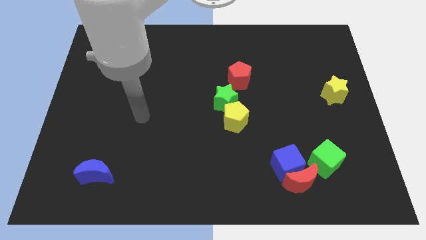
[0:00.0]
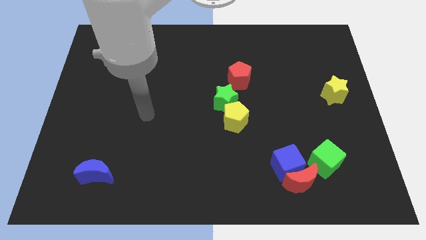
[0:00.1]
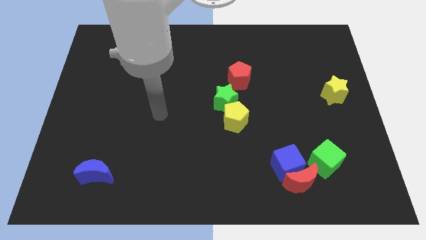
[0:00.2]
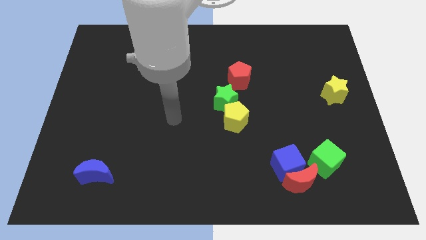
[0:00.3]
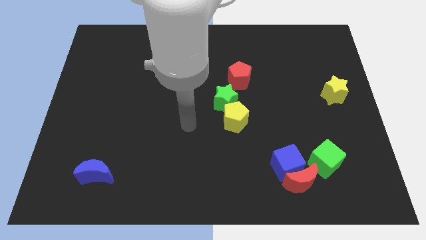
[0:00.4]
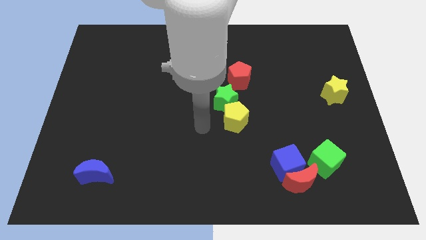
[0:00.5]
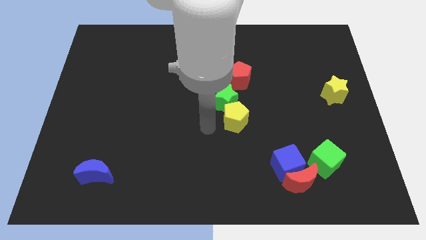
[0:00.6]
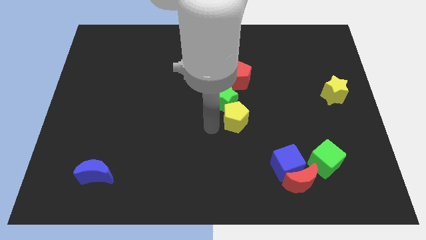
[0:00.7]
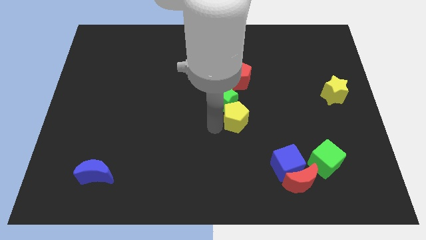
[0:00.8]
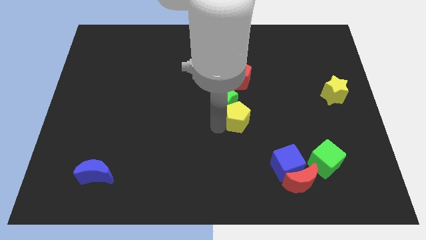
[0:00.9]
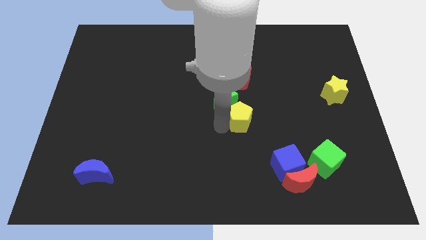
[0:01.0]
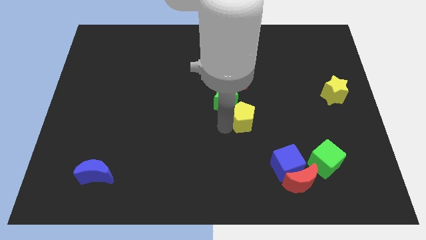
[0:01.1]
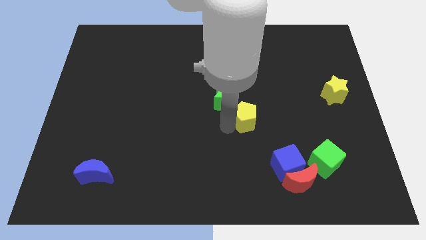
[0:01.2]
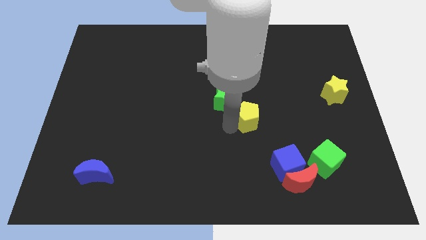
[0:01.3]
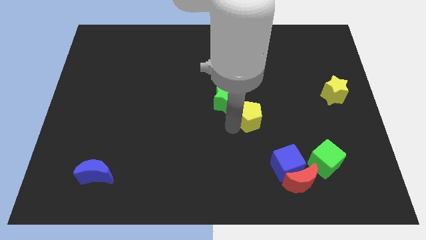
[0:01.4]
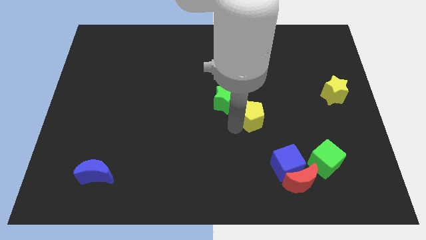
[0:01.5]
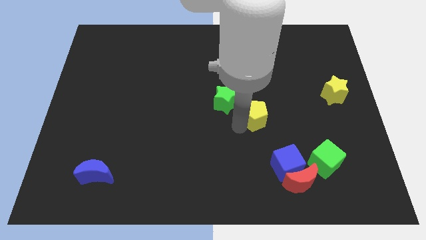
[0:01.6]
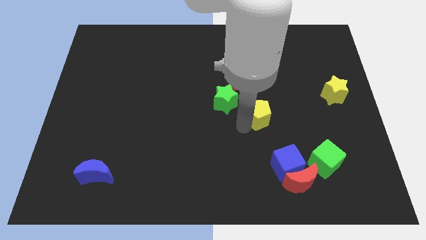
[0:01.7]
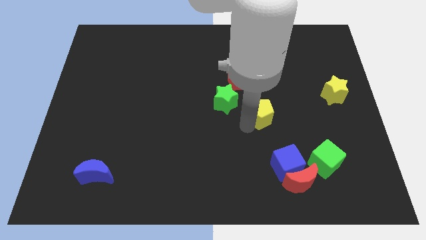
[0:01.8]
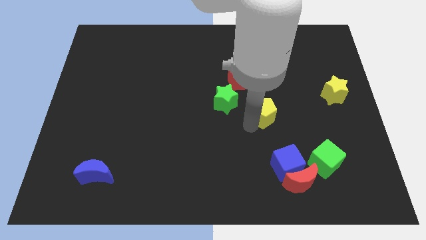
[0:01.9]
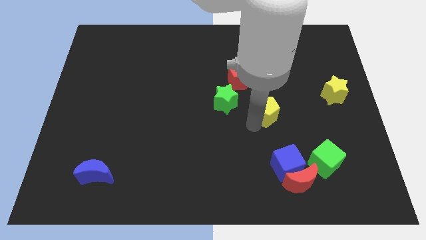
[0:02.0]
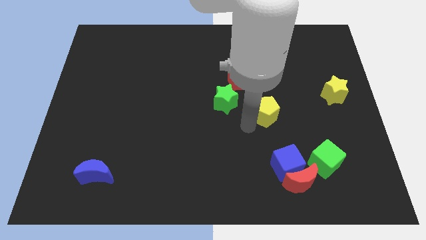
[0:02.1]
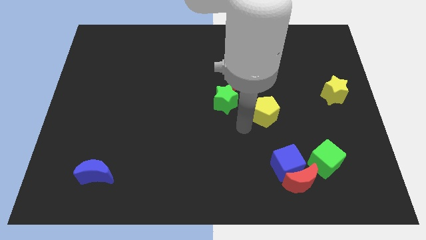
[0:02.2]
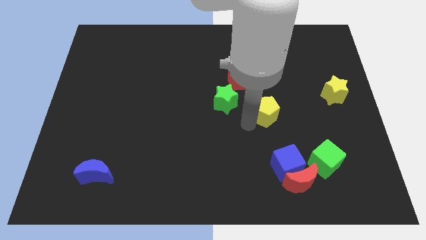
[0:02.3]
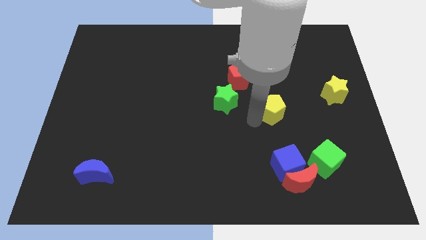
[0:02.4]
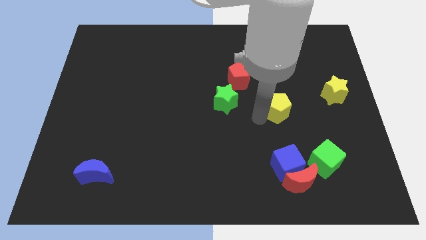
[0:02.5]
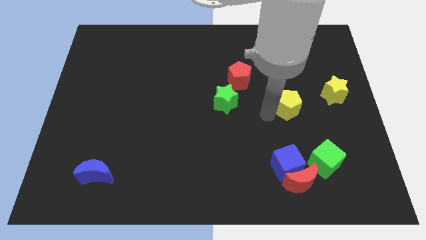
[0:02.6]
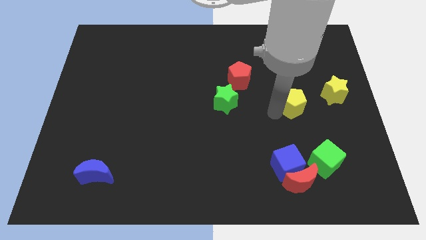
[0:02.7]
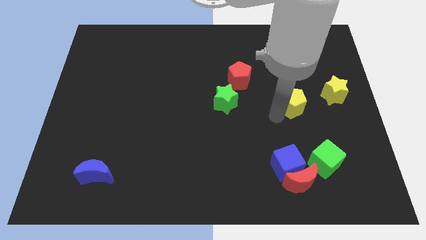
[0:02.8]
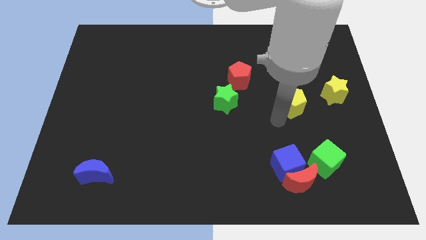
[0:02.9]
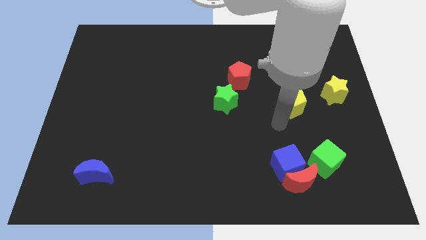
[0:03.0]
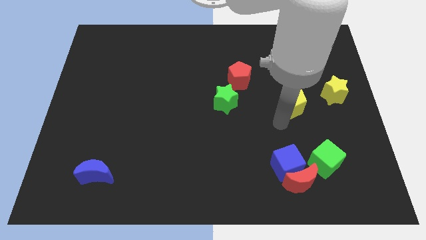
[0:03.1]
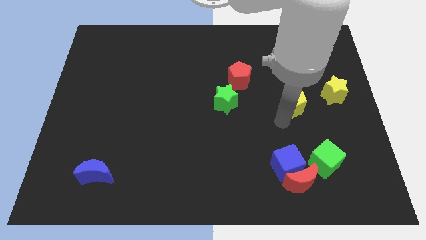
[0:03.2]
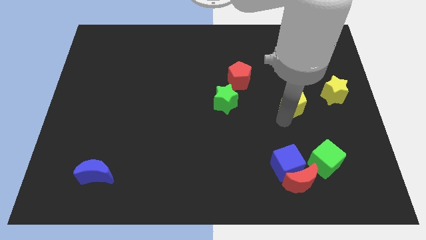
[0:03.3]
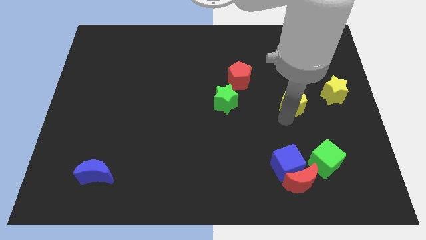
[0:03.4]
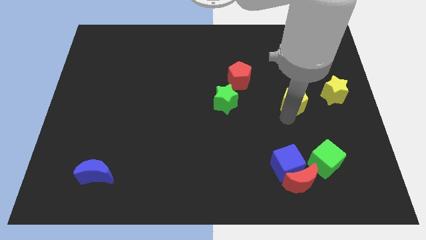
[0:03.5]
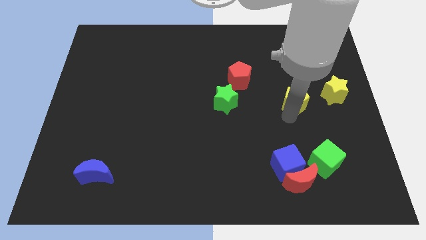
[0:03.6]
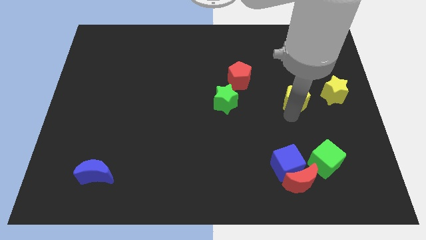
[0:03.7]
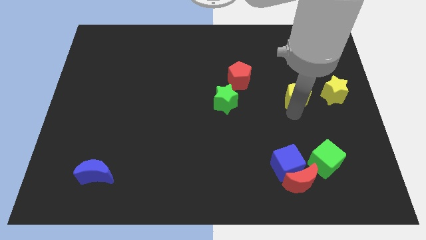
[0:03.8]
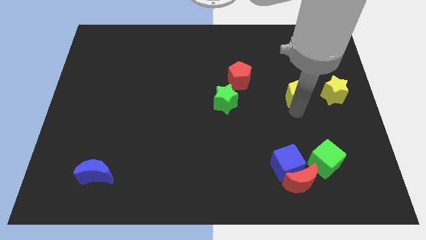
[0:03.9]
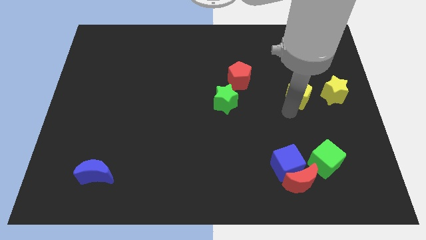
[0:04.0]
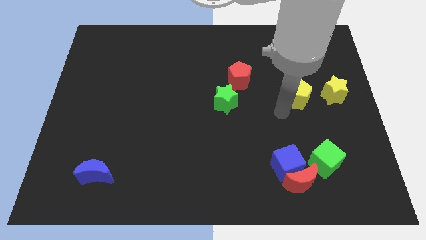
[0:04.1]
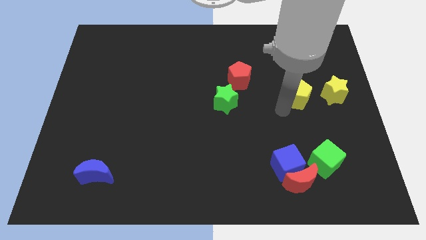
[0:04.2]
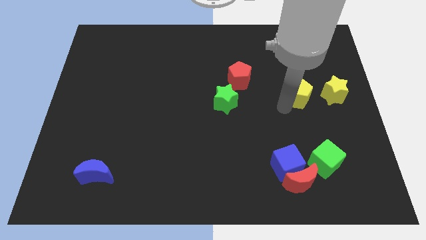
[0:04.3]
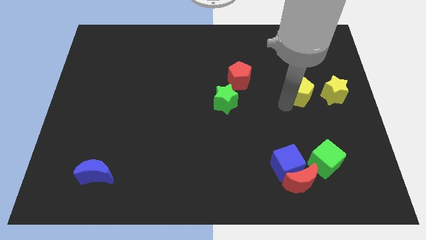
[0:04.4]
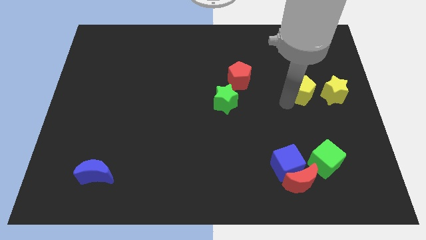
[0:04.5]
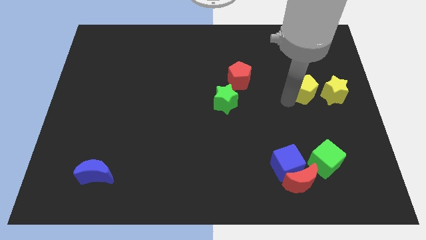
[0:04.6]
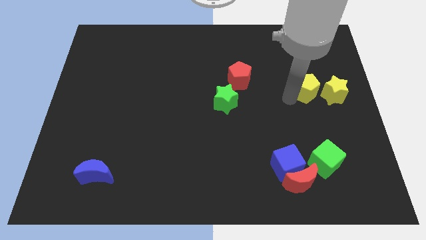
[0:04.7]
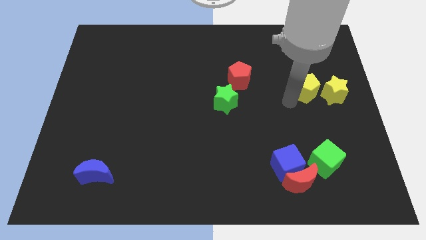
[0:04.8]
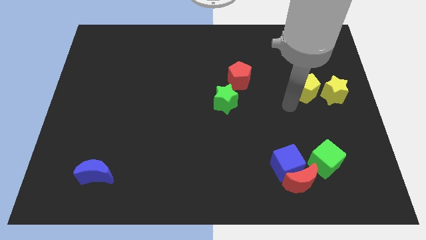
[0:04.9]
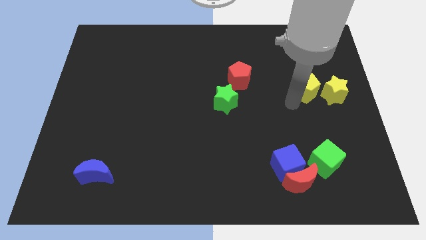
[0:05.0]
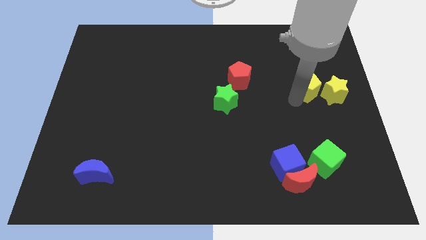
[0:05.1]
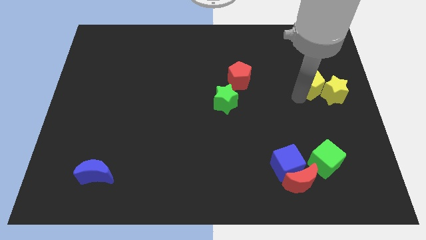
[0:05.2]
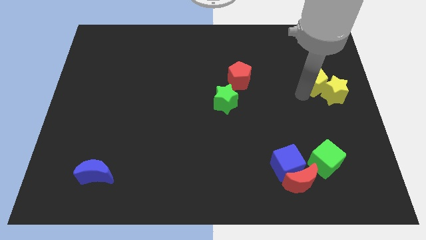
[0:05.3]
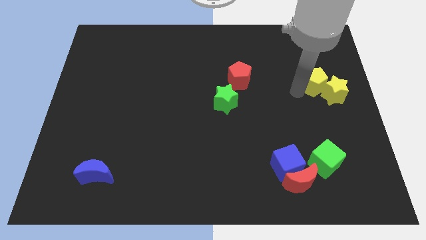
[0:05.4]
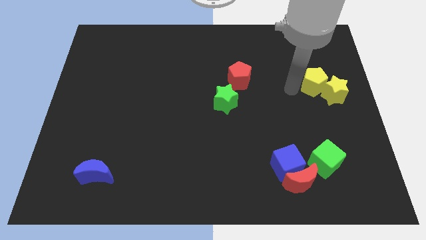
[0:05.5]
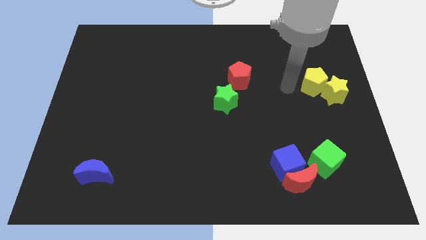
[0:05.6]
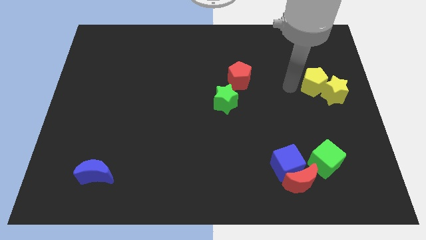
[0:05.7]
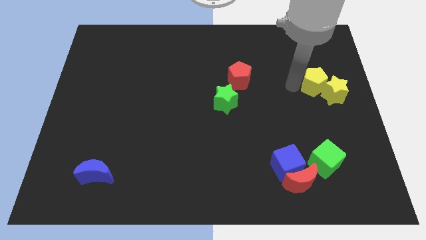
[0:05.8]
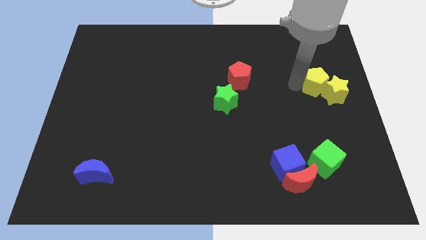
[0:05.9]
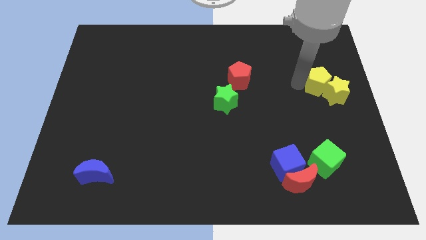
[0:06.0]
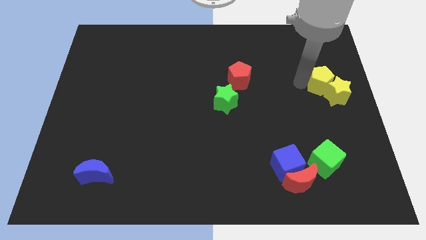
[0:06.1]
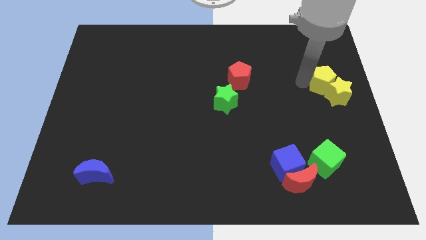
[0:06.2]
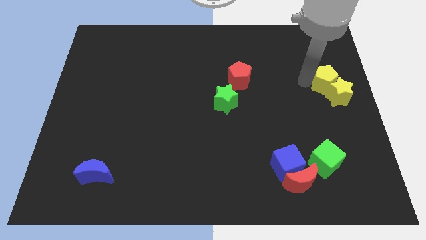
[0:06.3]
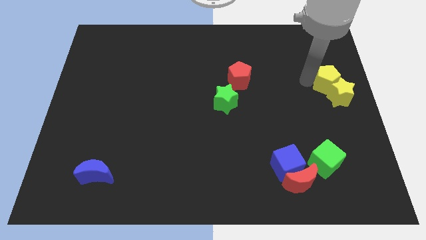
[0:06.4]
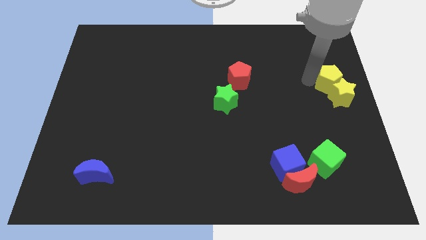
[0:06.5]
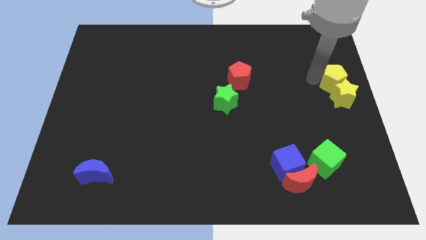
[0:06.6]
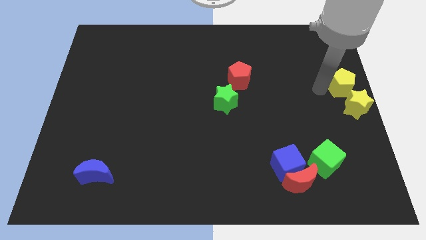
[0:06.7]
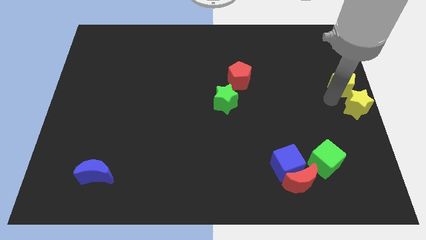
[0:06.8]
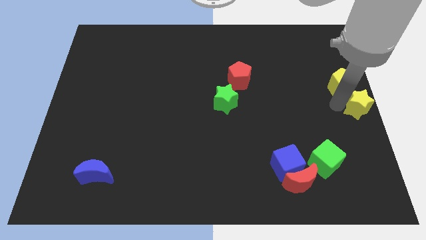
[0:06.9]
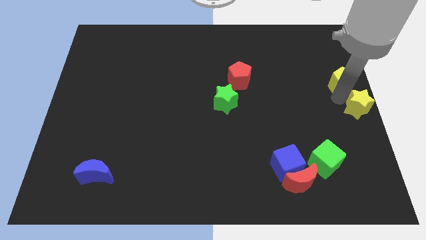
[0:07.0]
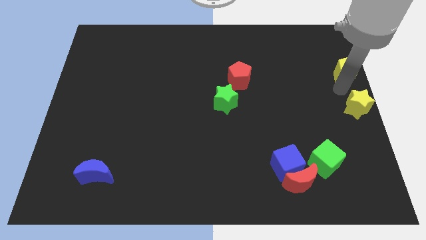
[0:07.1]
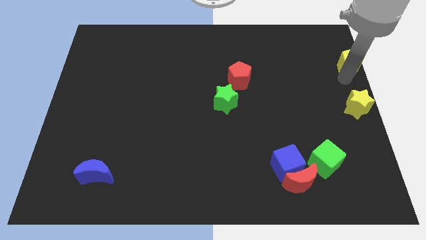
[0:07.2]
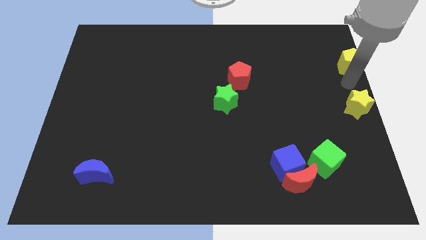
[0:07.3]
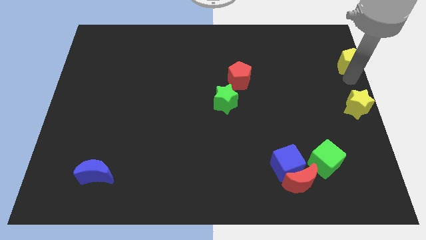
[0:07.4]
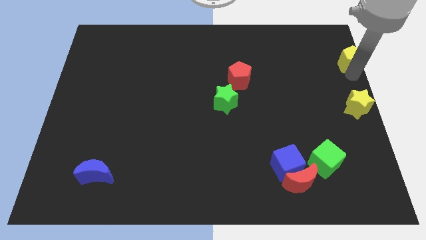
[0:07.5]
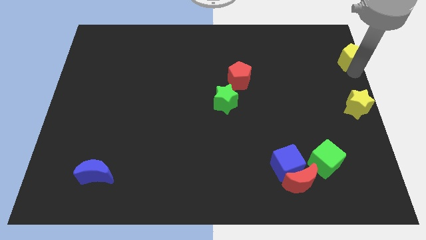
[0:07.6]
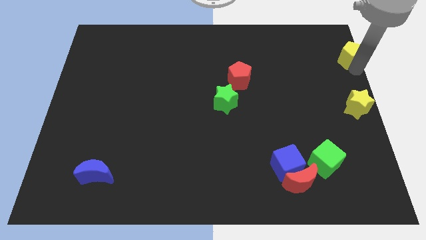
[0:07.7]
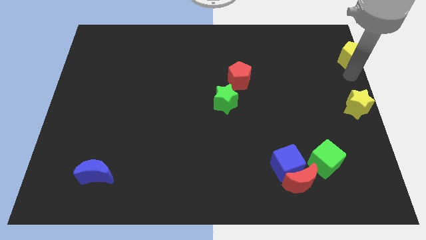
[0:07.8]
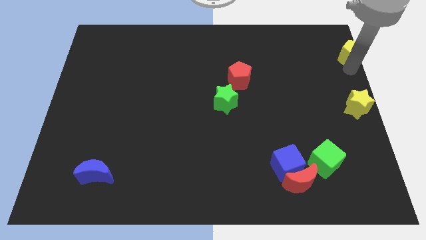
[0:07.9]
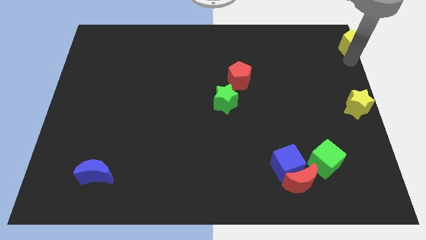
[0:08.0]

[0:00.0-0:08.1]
put the yellow pentagon to the top right of the board
